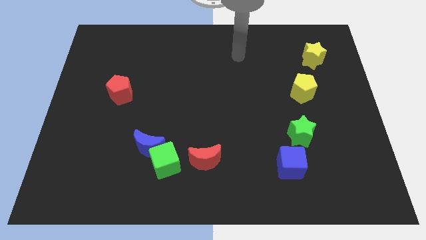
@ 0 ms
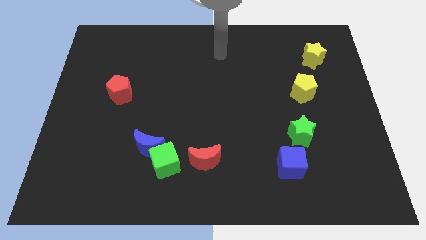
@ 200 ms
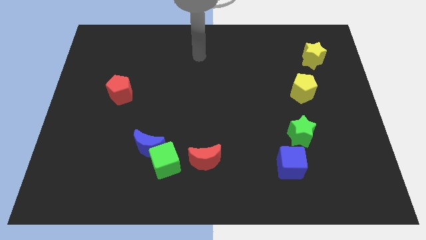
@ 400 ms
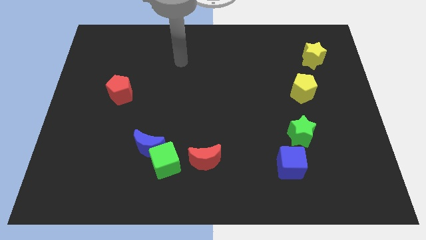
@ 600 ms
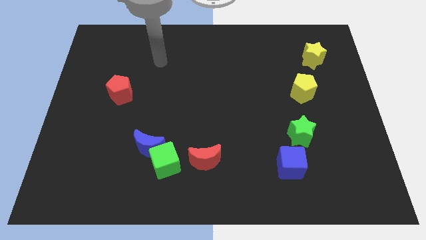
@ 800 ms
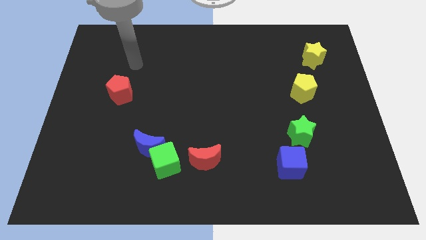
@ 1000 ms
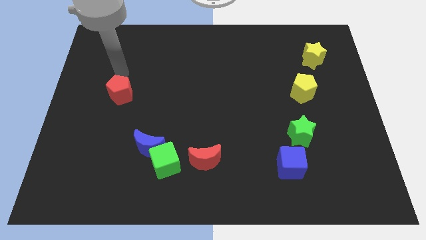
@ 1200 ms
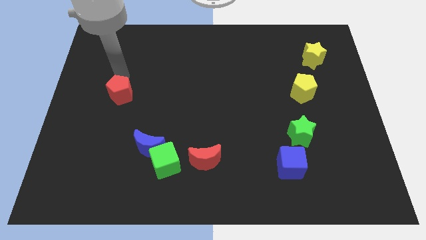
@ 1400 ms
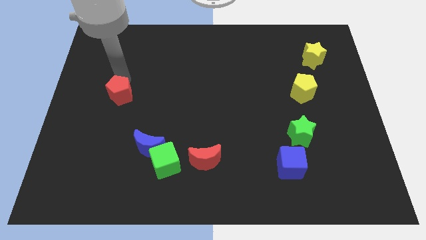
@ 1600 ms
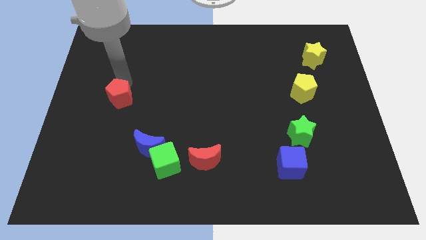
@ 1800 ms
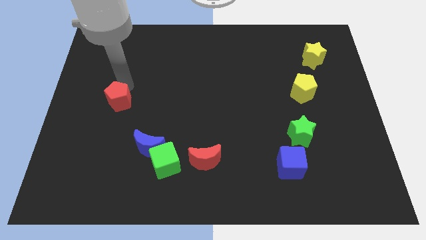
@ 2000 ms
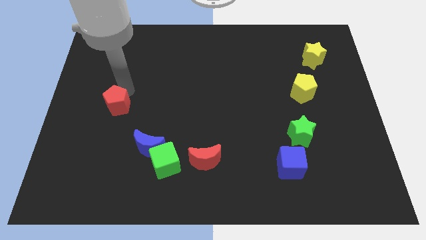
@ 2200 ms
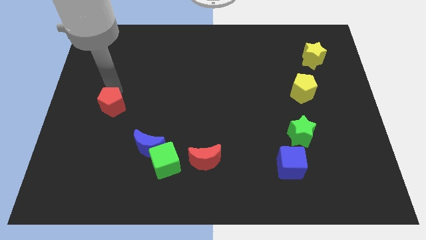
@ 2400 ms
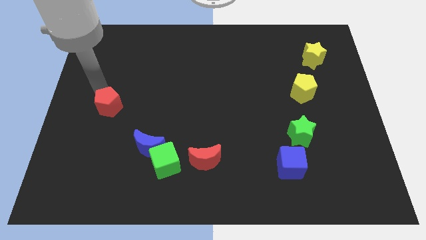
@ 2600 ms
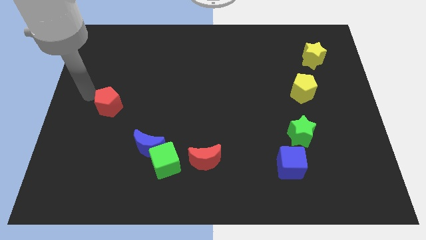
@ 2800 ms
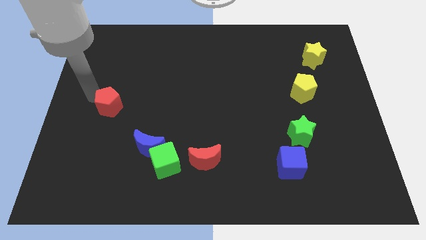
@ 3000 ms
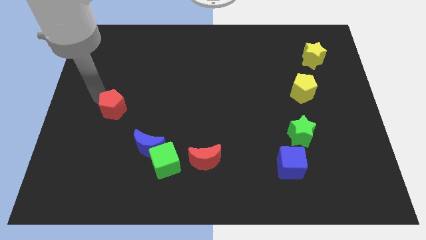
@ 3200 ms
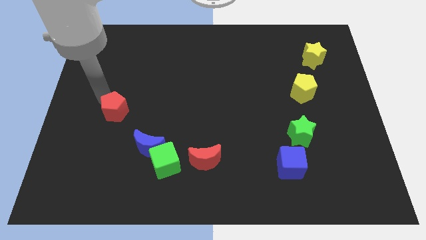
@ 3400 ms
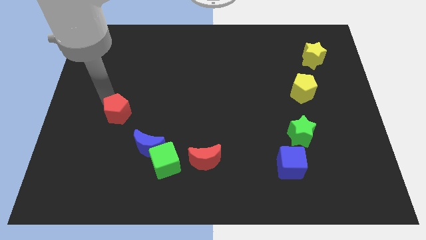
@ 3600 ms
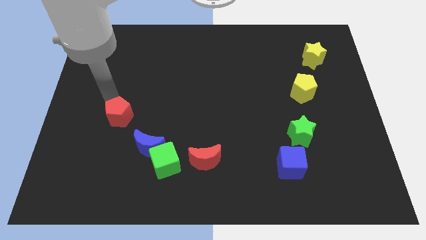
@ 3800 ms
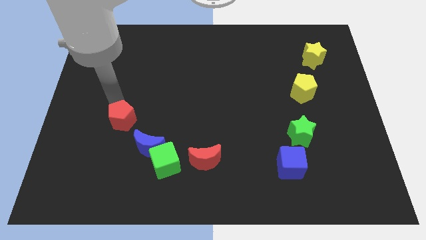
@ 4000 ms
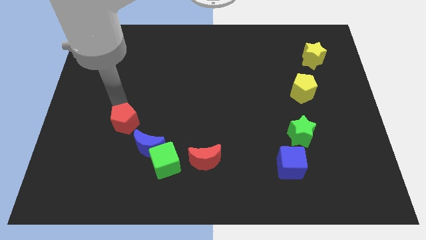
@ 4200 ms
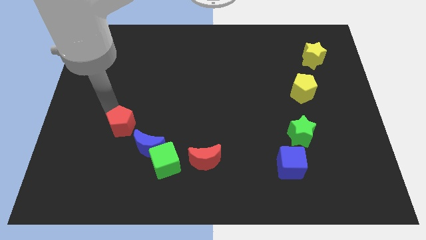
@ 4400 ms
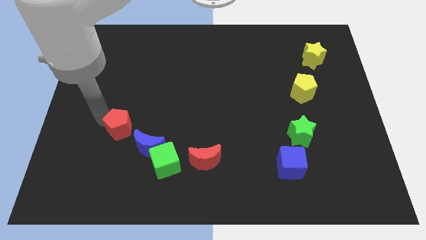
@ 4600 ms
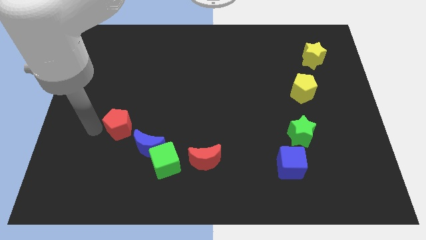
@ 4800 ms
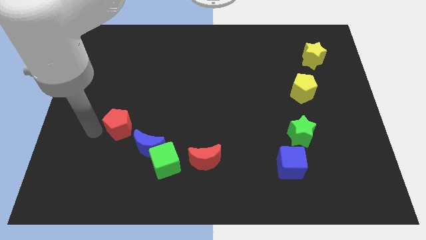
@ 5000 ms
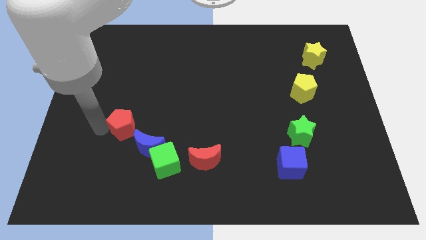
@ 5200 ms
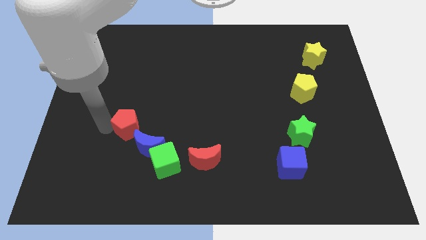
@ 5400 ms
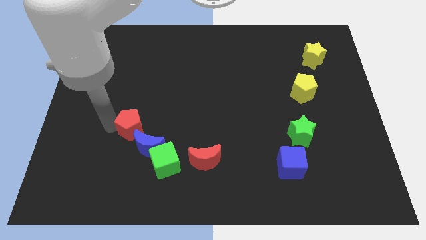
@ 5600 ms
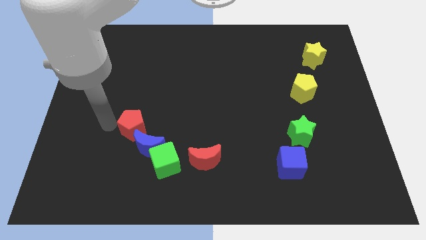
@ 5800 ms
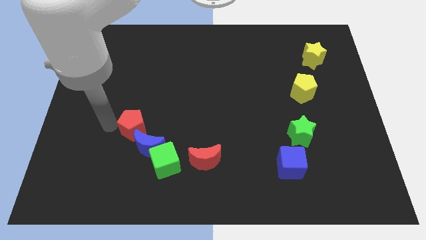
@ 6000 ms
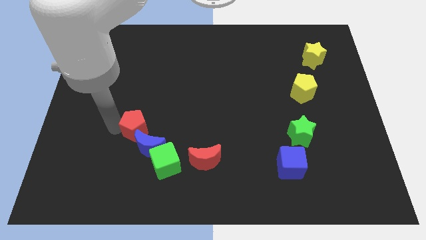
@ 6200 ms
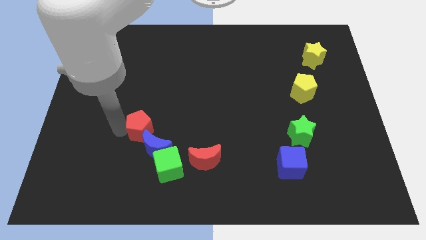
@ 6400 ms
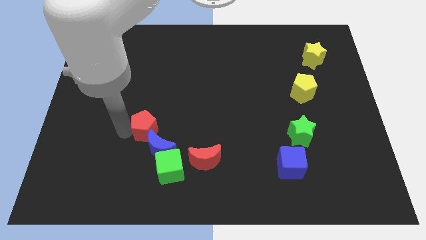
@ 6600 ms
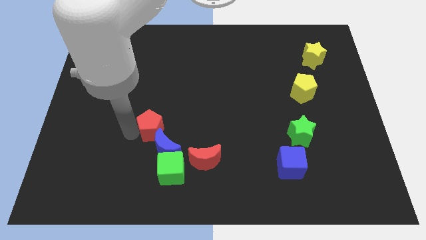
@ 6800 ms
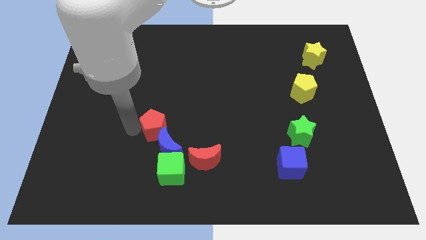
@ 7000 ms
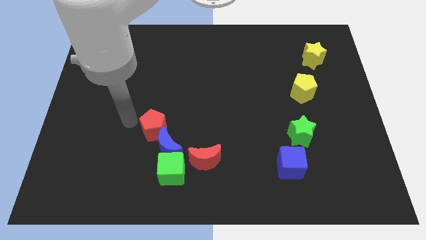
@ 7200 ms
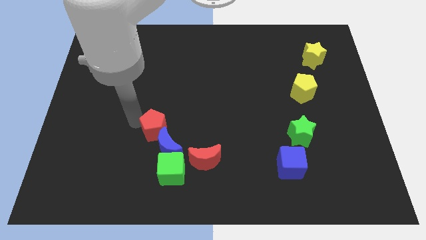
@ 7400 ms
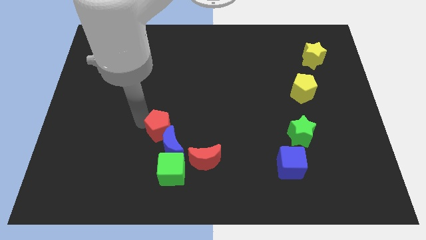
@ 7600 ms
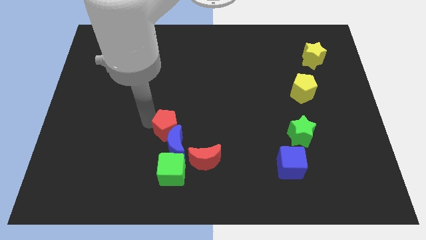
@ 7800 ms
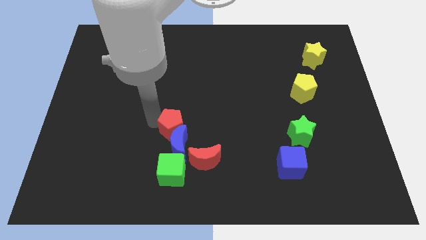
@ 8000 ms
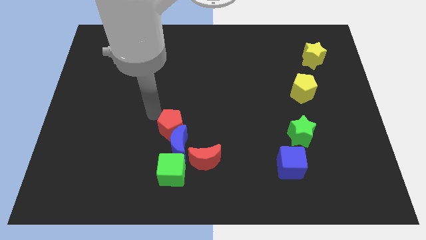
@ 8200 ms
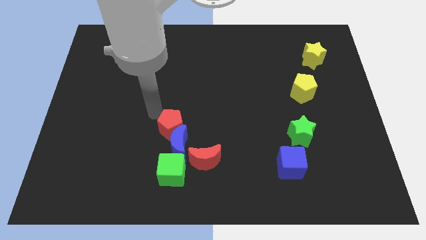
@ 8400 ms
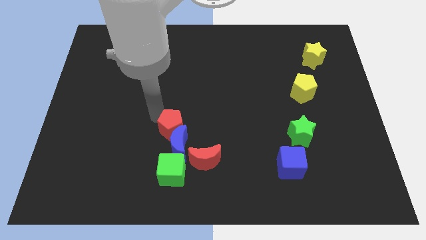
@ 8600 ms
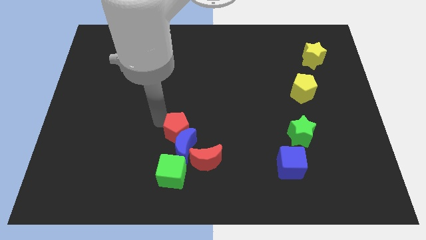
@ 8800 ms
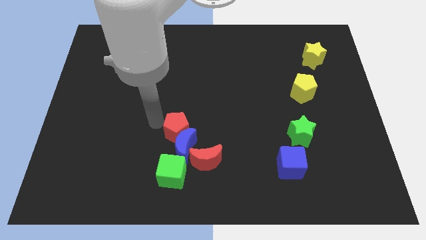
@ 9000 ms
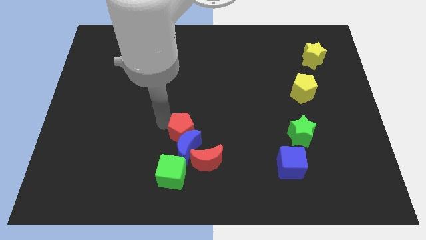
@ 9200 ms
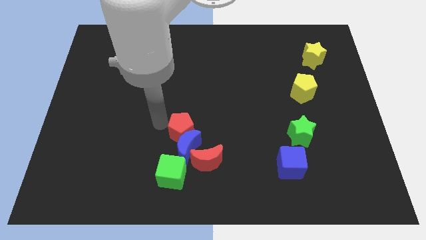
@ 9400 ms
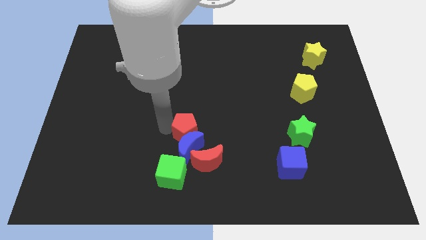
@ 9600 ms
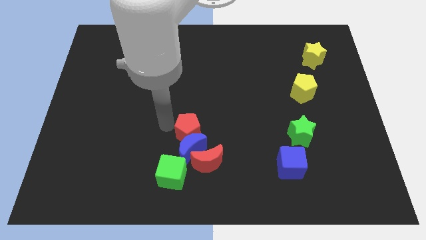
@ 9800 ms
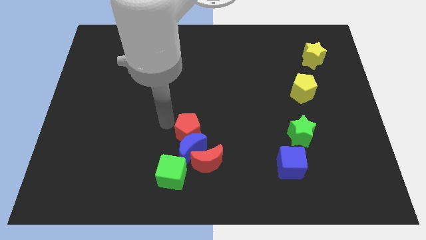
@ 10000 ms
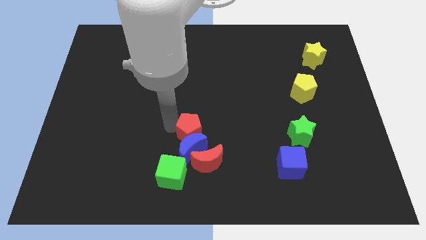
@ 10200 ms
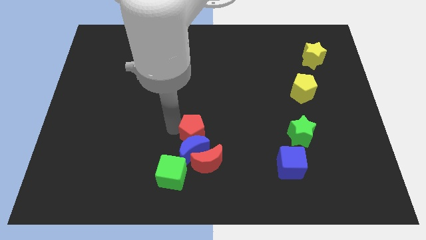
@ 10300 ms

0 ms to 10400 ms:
move the red pentagon downwards and to the right diagonally

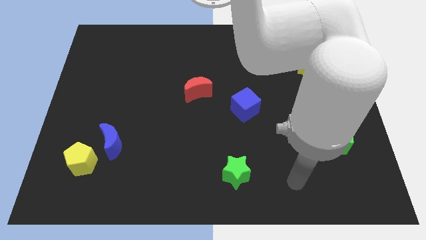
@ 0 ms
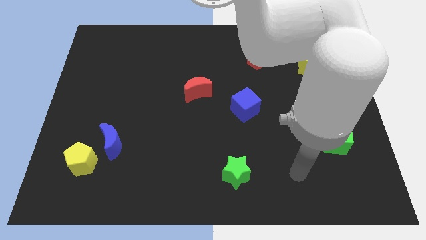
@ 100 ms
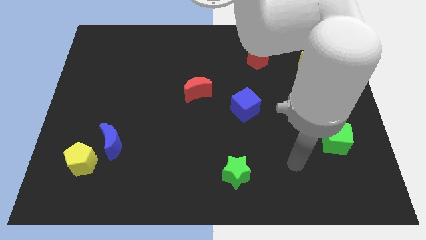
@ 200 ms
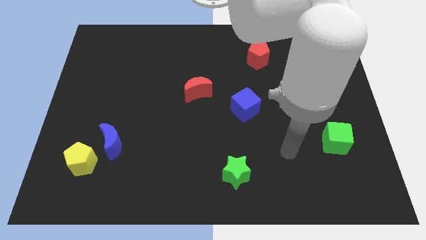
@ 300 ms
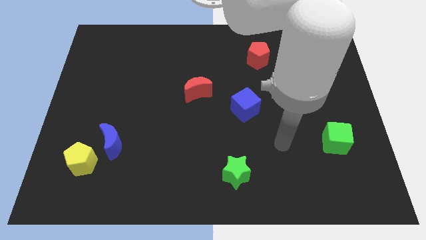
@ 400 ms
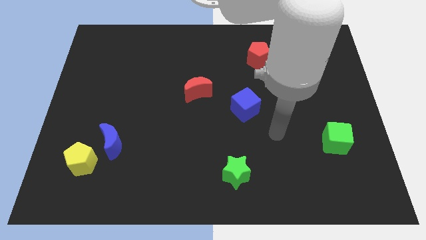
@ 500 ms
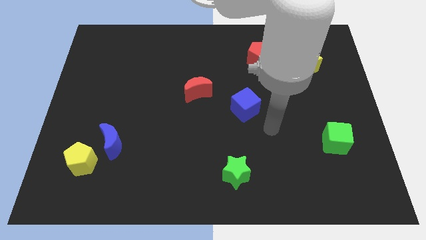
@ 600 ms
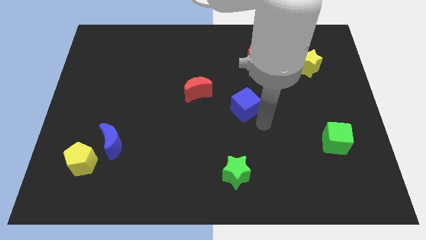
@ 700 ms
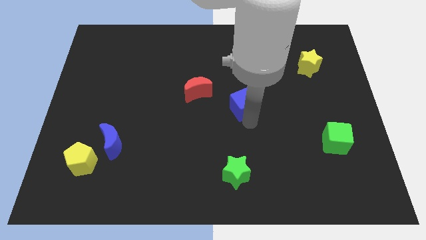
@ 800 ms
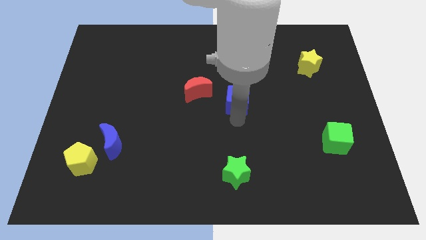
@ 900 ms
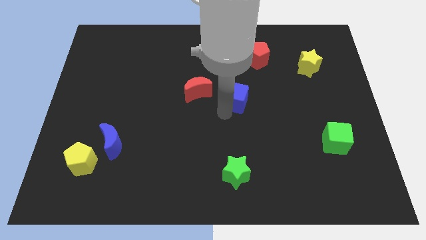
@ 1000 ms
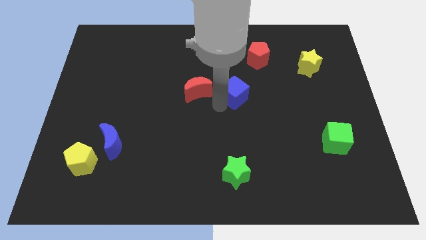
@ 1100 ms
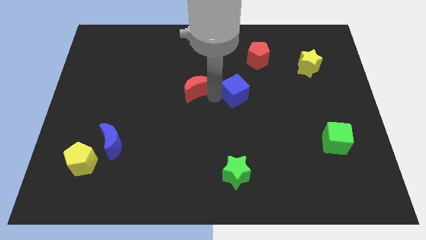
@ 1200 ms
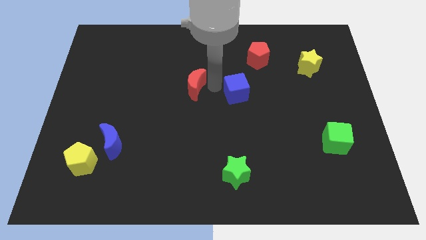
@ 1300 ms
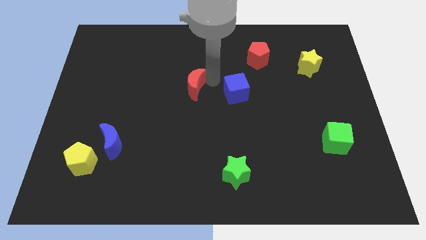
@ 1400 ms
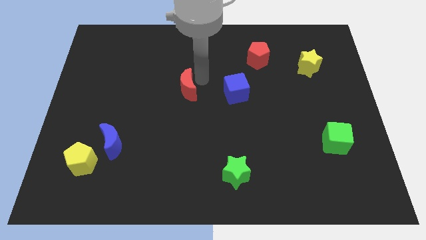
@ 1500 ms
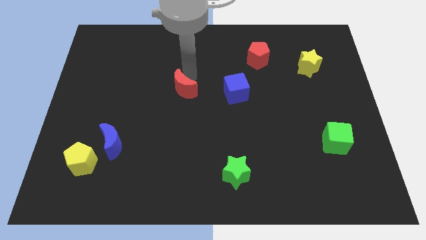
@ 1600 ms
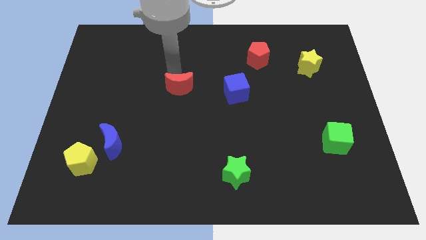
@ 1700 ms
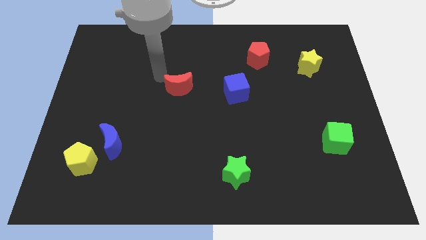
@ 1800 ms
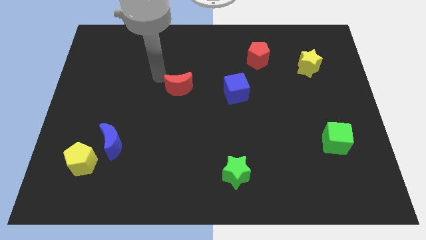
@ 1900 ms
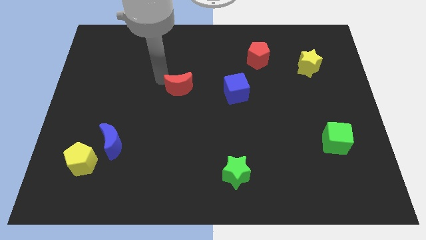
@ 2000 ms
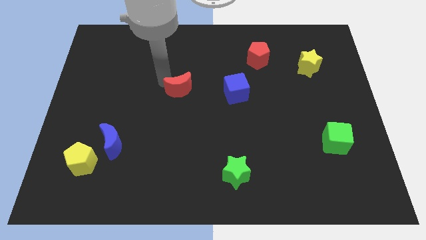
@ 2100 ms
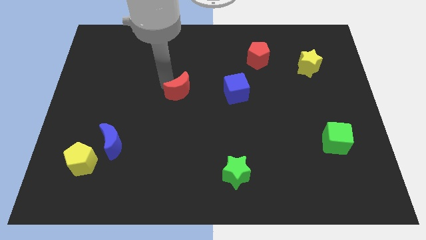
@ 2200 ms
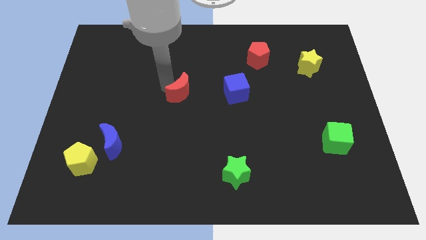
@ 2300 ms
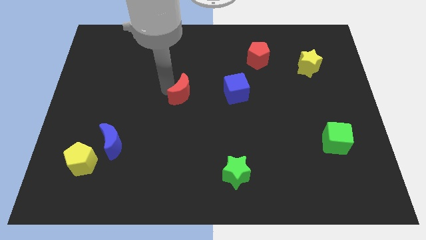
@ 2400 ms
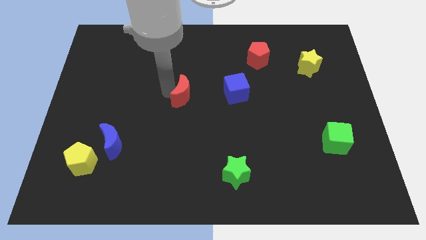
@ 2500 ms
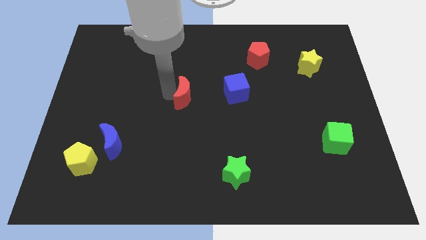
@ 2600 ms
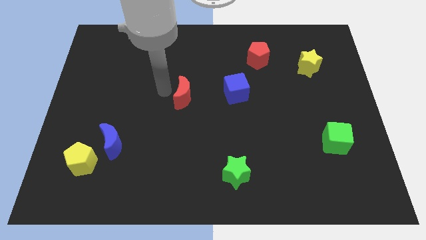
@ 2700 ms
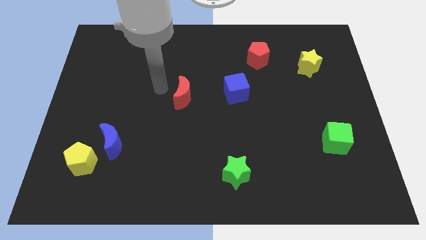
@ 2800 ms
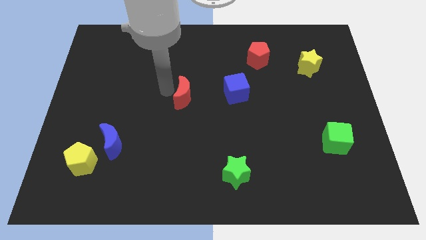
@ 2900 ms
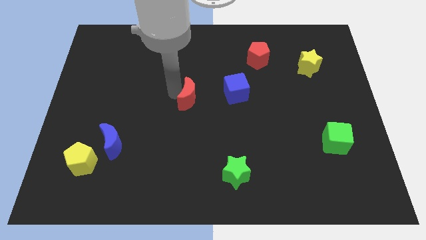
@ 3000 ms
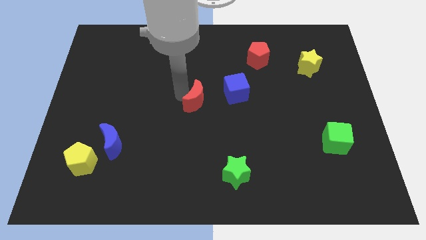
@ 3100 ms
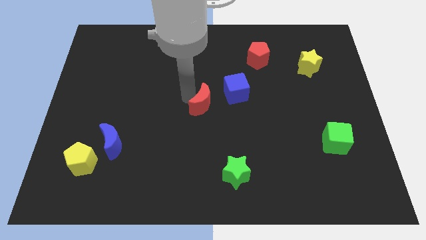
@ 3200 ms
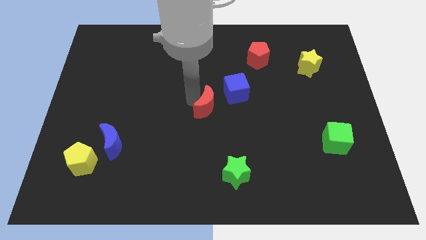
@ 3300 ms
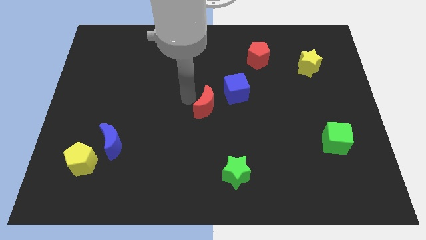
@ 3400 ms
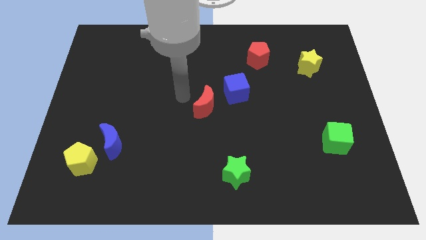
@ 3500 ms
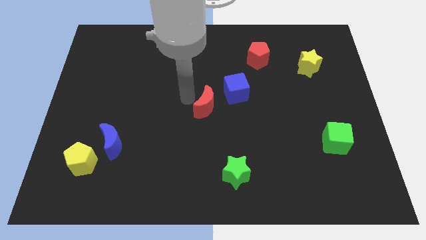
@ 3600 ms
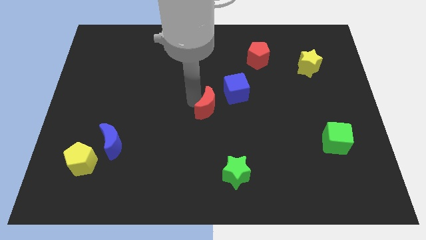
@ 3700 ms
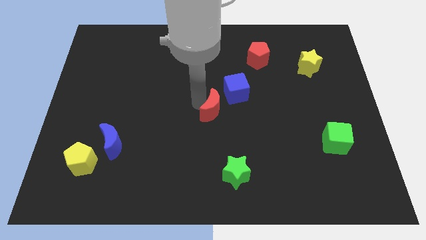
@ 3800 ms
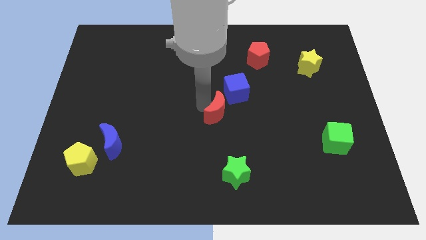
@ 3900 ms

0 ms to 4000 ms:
slide the red moon slightly downwards and then right
